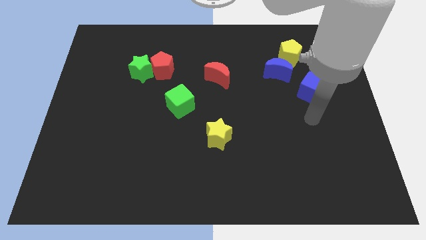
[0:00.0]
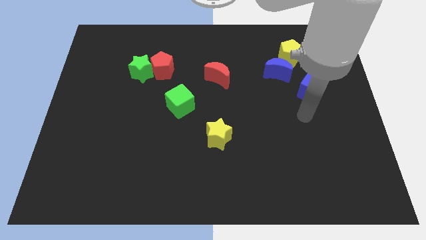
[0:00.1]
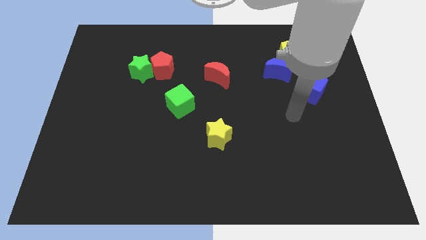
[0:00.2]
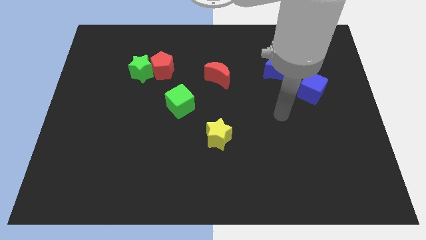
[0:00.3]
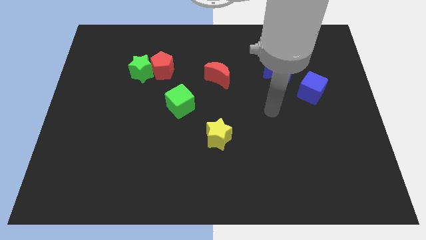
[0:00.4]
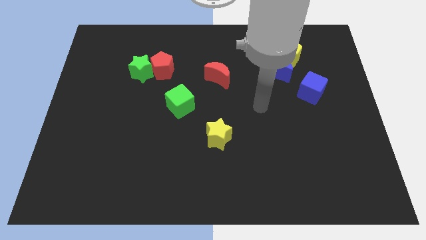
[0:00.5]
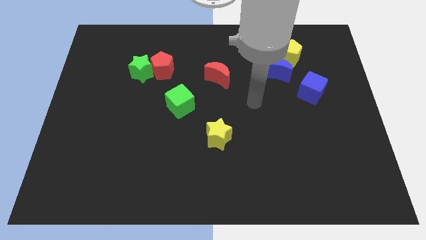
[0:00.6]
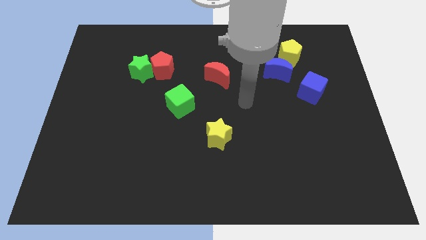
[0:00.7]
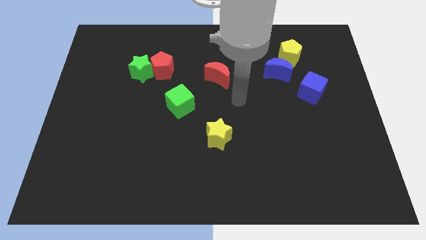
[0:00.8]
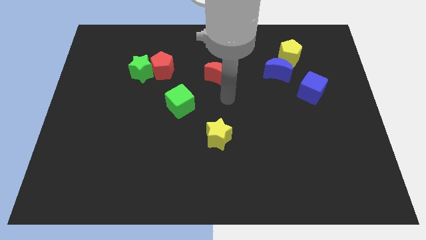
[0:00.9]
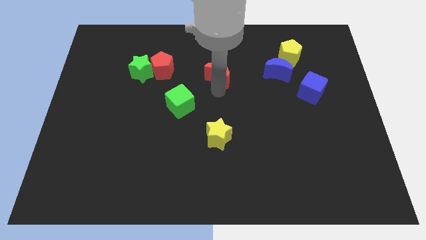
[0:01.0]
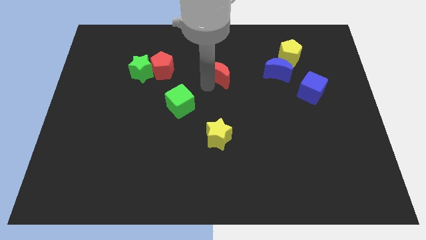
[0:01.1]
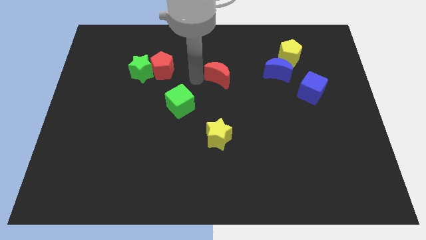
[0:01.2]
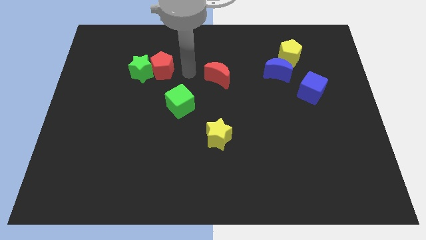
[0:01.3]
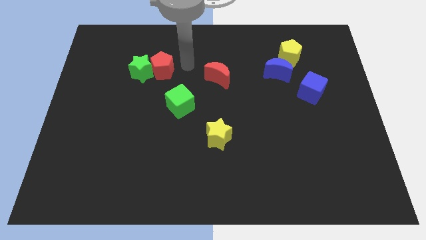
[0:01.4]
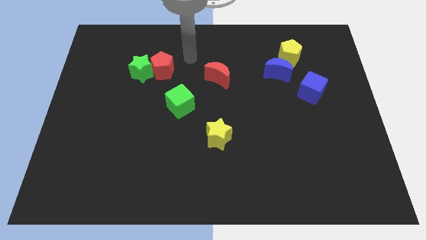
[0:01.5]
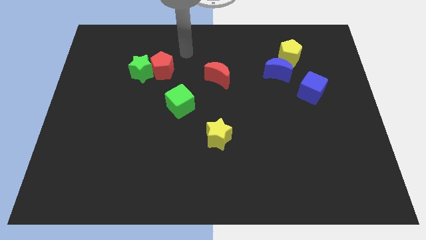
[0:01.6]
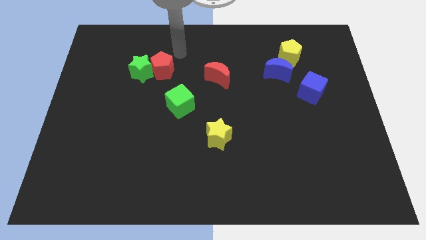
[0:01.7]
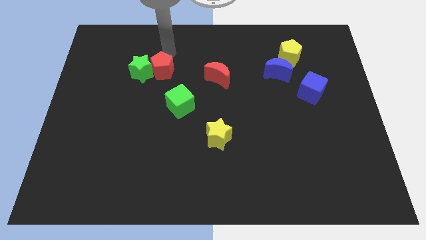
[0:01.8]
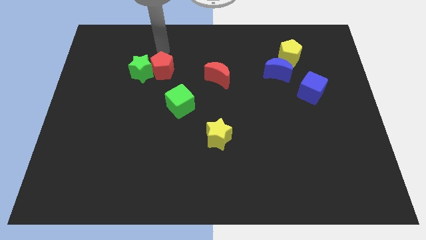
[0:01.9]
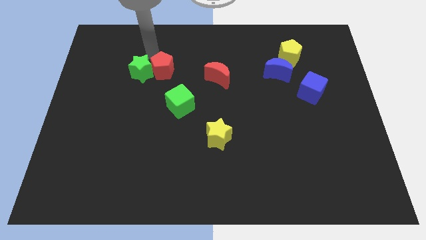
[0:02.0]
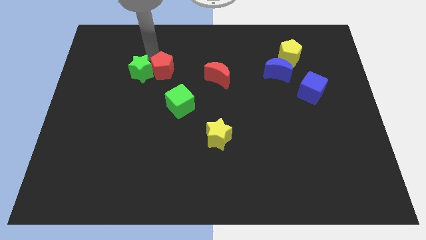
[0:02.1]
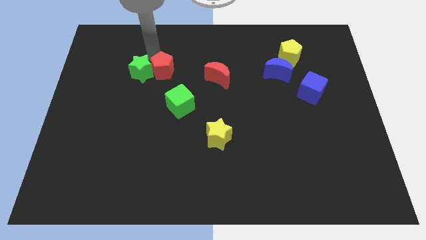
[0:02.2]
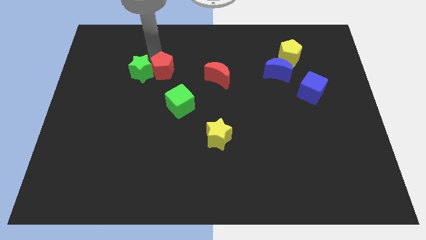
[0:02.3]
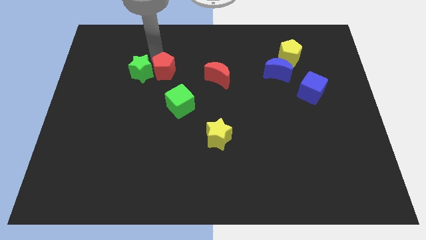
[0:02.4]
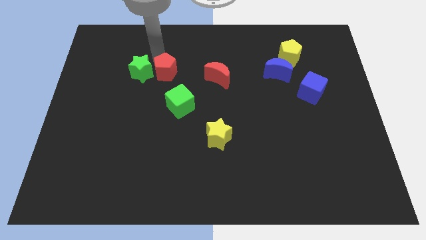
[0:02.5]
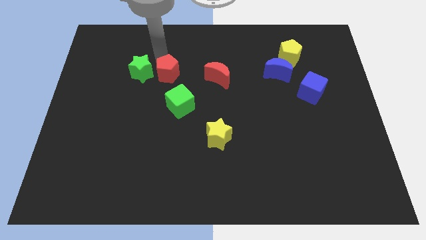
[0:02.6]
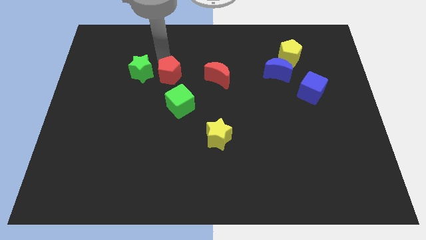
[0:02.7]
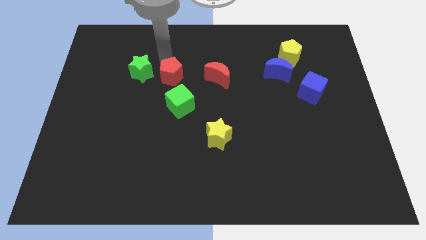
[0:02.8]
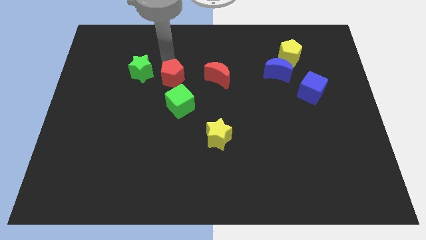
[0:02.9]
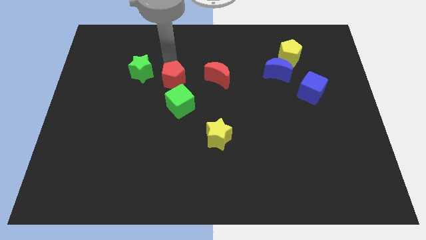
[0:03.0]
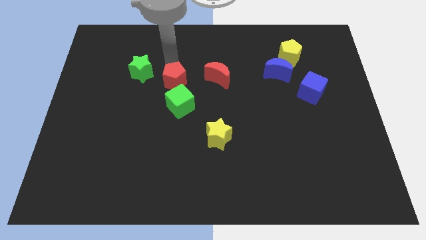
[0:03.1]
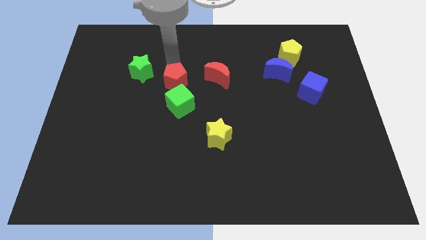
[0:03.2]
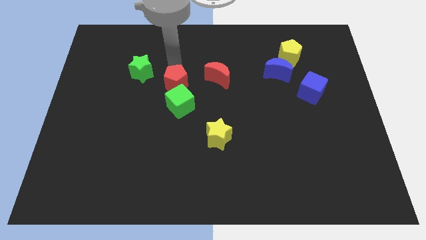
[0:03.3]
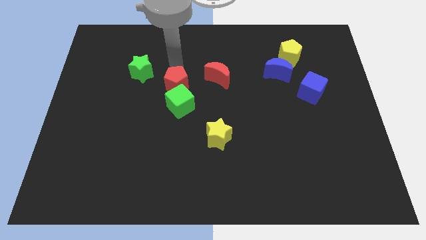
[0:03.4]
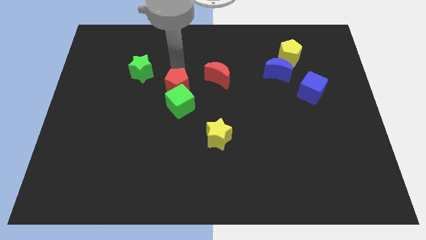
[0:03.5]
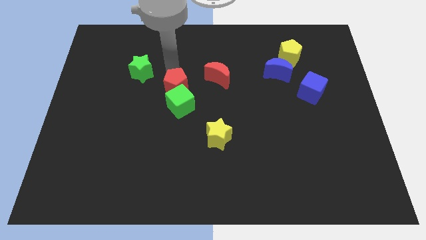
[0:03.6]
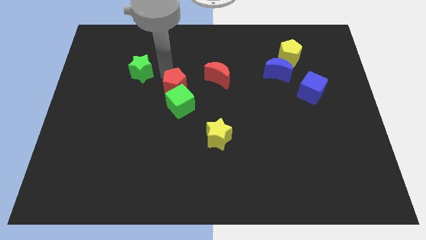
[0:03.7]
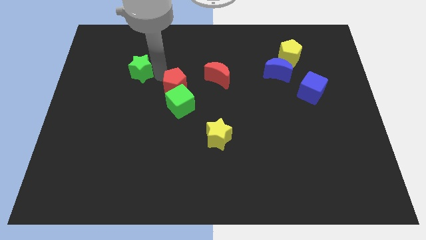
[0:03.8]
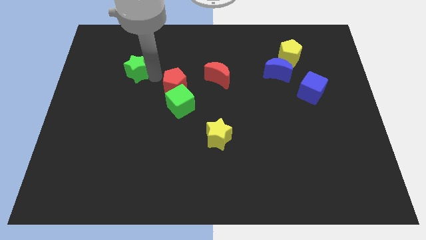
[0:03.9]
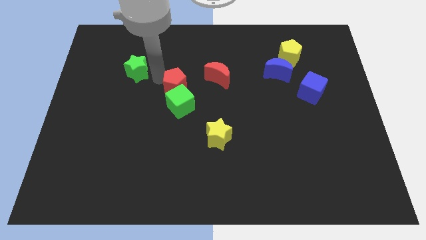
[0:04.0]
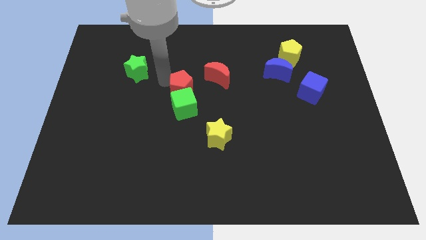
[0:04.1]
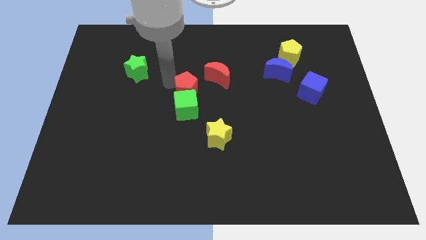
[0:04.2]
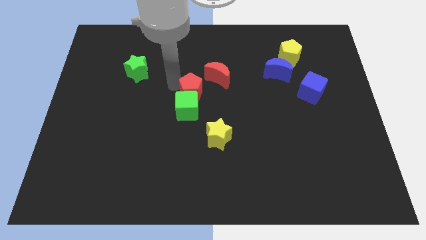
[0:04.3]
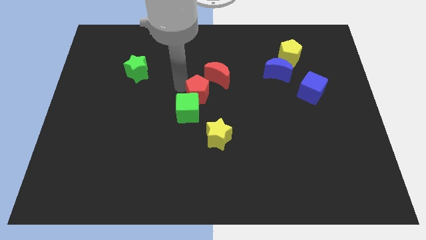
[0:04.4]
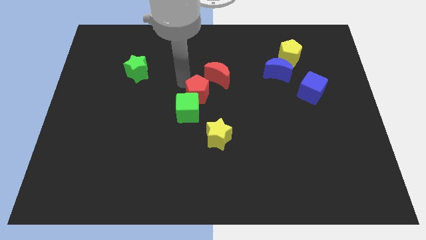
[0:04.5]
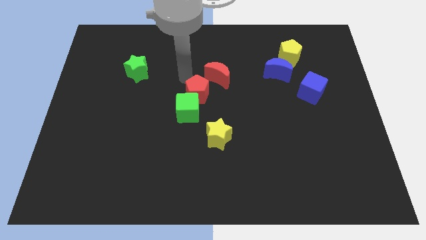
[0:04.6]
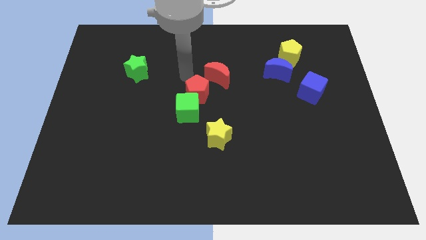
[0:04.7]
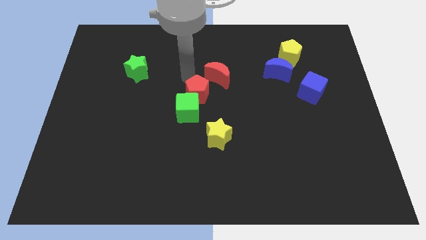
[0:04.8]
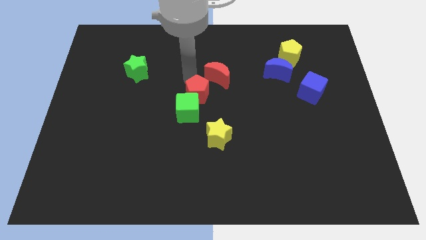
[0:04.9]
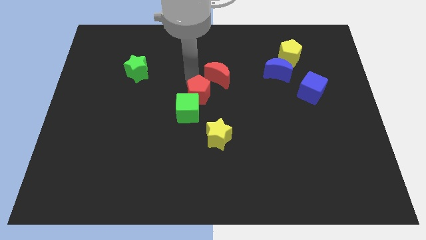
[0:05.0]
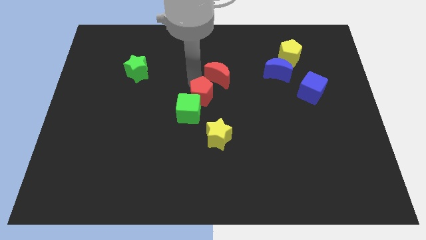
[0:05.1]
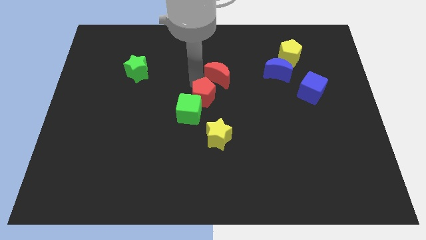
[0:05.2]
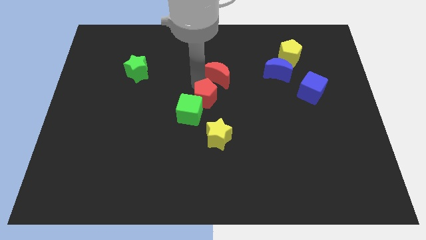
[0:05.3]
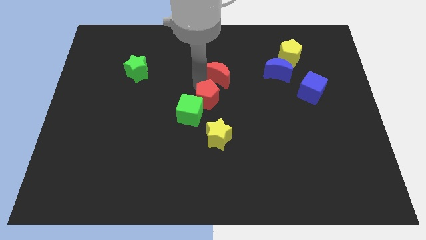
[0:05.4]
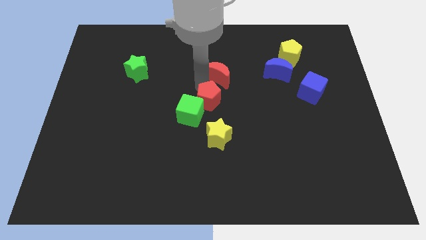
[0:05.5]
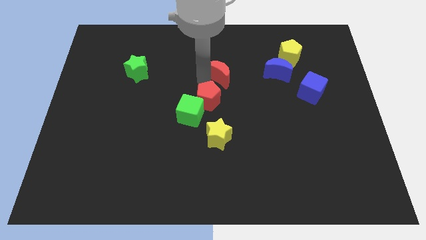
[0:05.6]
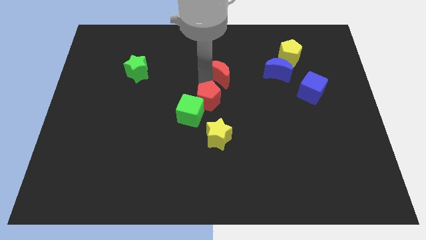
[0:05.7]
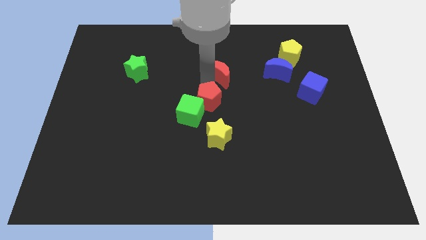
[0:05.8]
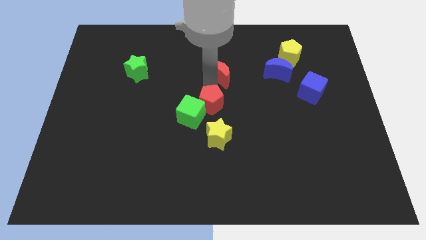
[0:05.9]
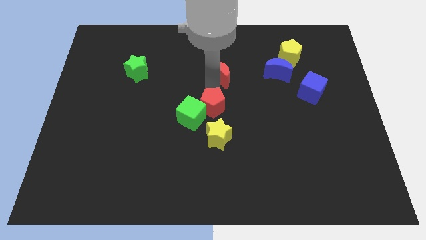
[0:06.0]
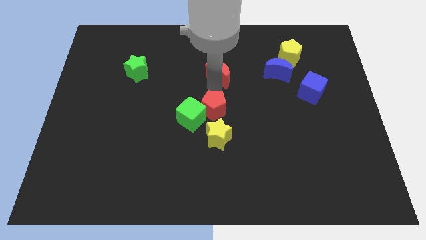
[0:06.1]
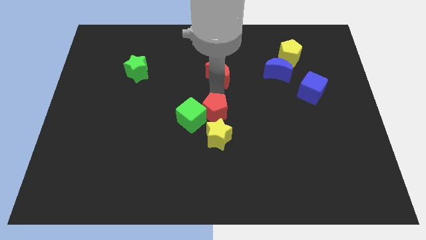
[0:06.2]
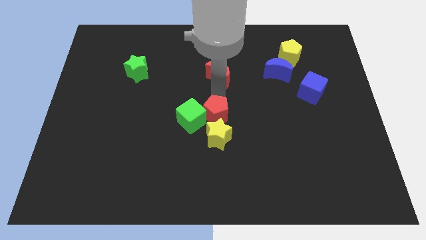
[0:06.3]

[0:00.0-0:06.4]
push the red pentagon next to the yellow star

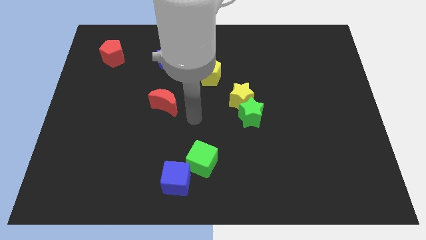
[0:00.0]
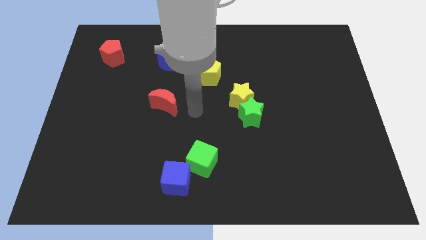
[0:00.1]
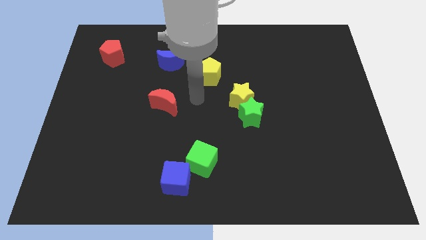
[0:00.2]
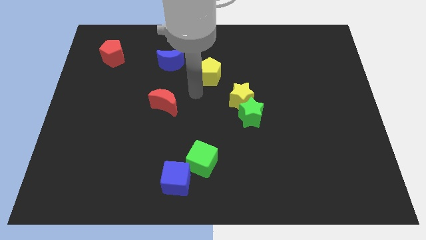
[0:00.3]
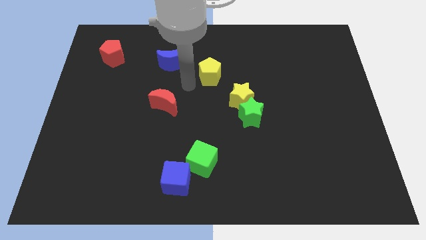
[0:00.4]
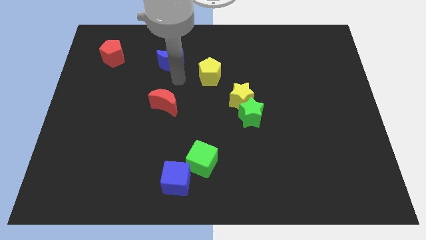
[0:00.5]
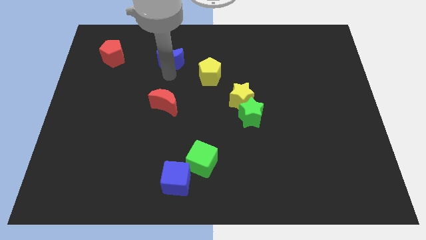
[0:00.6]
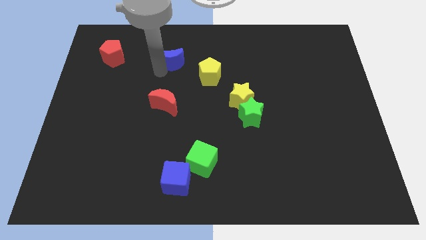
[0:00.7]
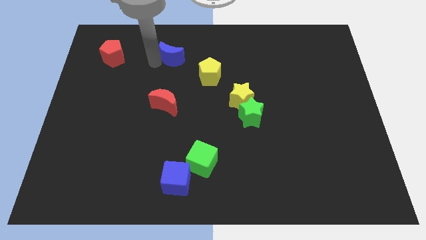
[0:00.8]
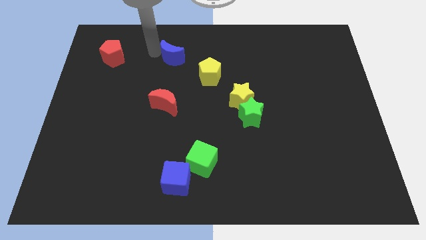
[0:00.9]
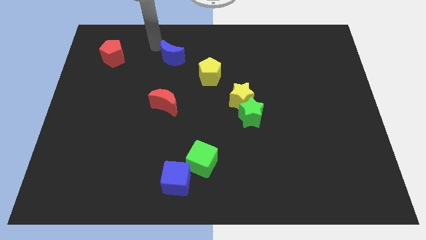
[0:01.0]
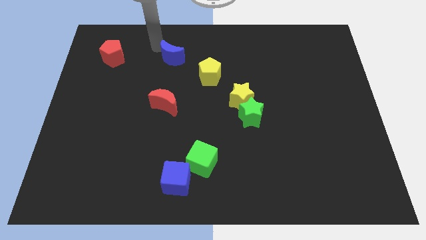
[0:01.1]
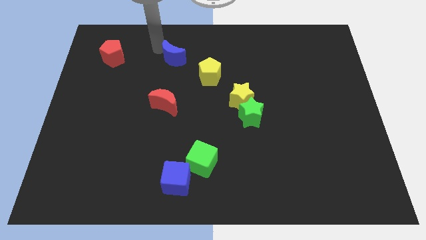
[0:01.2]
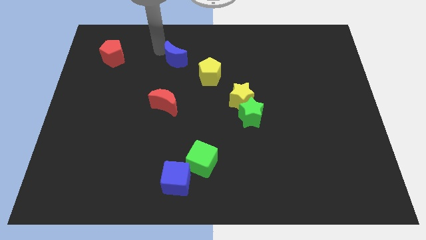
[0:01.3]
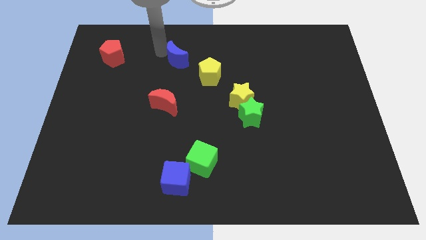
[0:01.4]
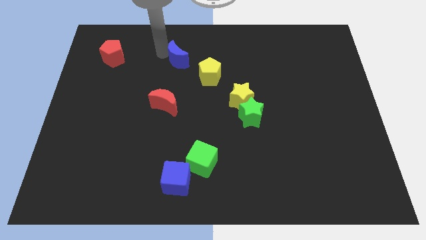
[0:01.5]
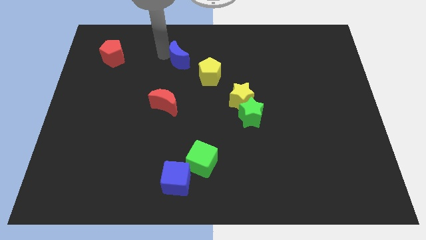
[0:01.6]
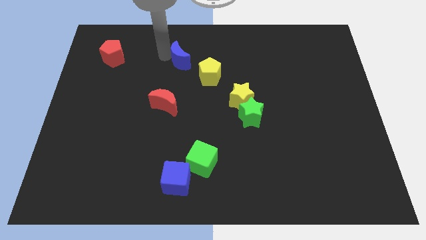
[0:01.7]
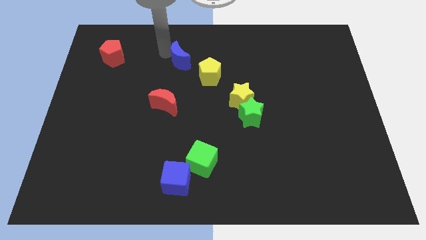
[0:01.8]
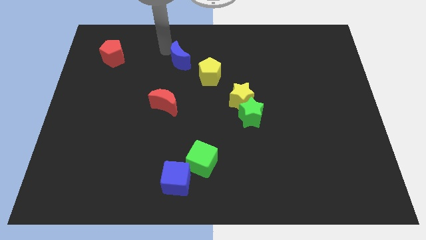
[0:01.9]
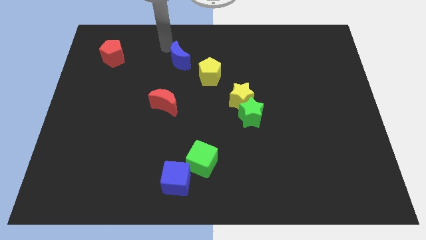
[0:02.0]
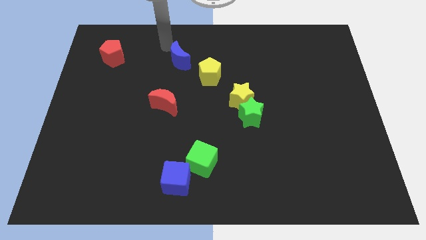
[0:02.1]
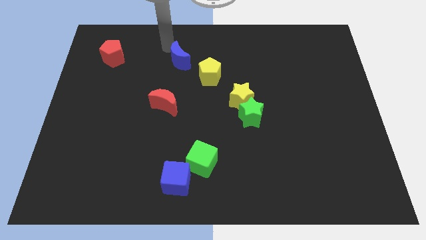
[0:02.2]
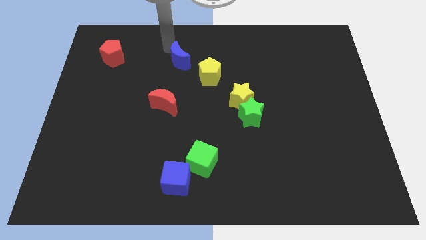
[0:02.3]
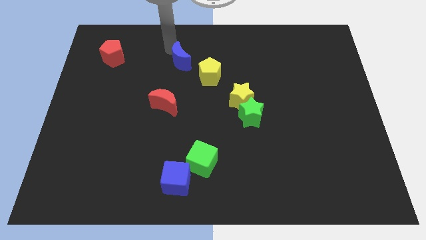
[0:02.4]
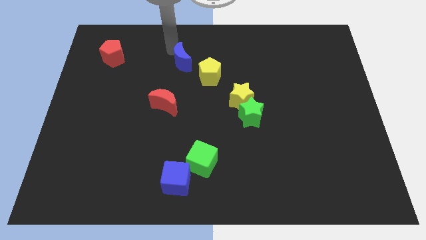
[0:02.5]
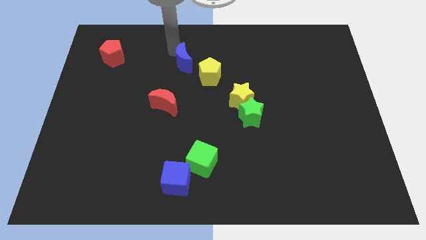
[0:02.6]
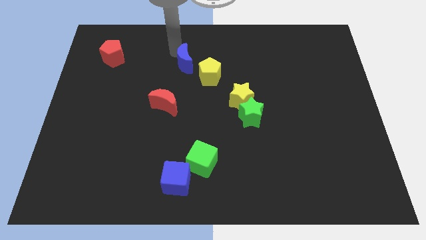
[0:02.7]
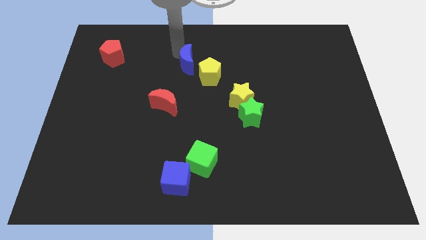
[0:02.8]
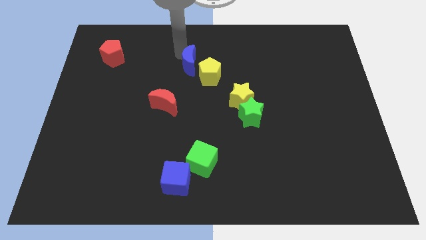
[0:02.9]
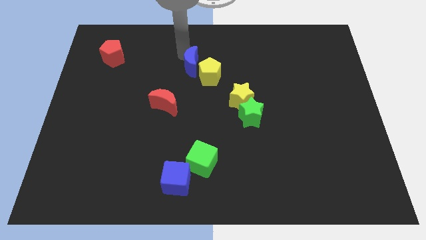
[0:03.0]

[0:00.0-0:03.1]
slide the blue moon close to the yellow pentagon
